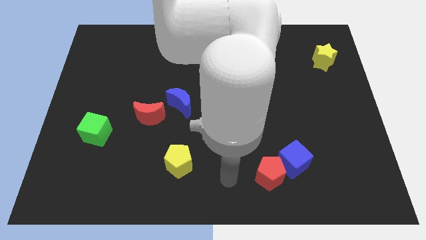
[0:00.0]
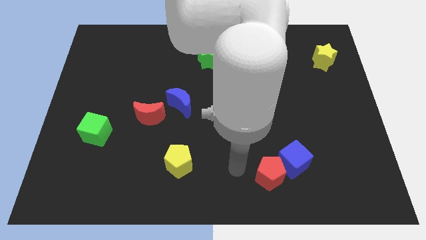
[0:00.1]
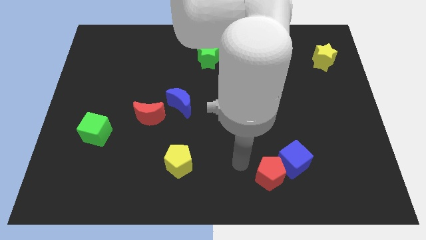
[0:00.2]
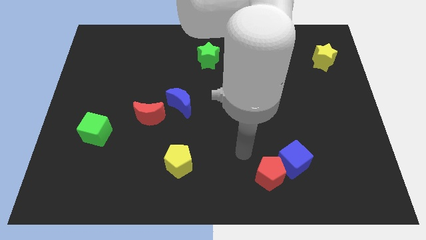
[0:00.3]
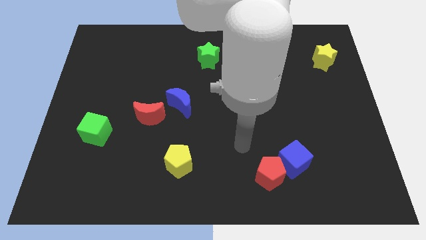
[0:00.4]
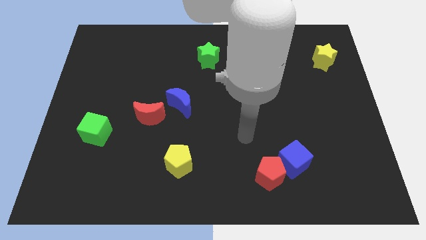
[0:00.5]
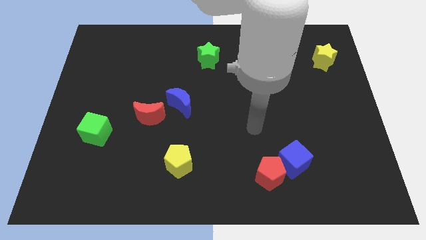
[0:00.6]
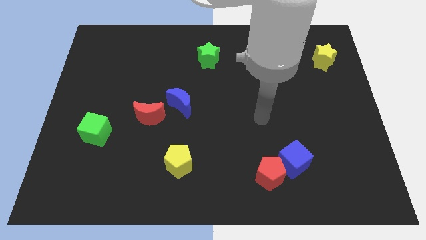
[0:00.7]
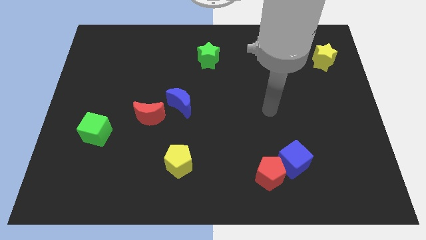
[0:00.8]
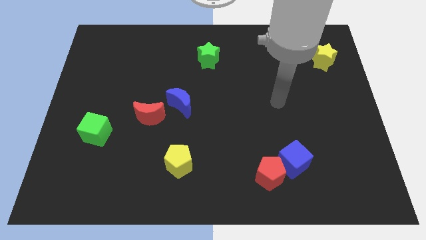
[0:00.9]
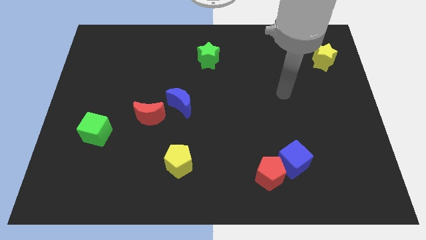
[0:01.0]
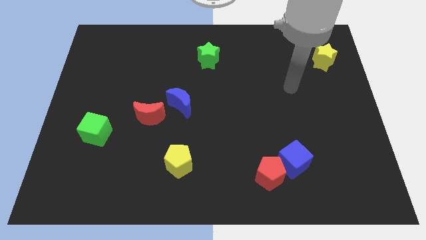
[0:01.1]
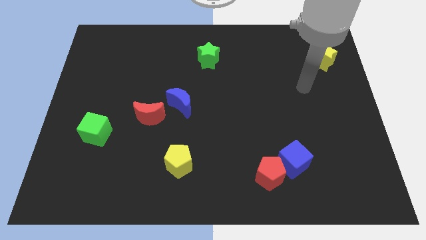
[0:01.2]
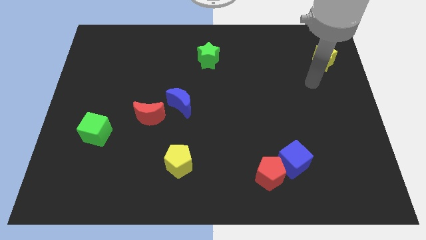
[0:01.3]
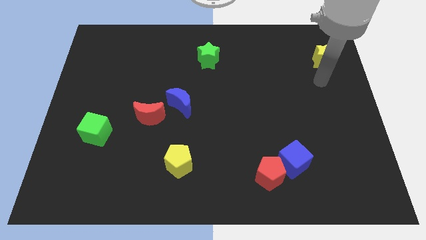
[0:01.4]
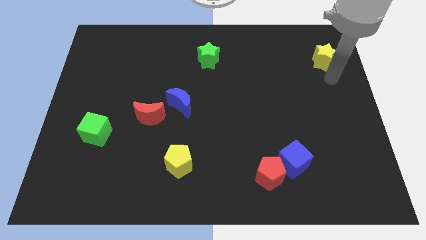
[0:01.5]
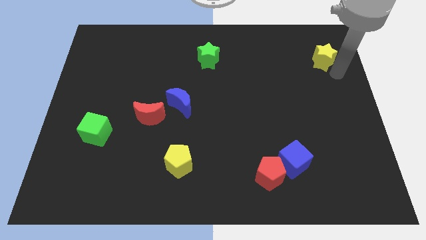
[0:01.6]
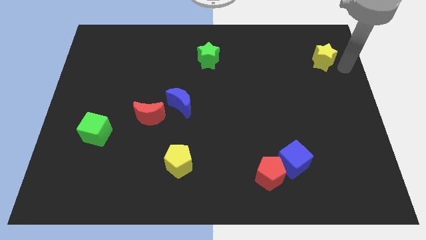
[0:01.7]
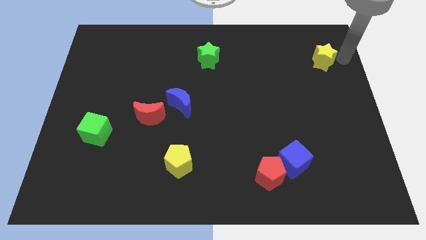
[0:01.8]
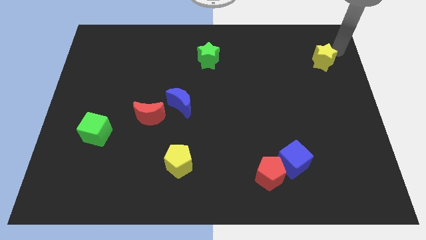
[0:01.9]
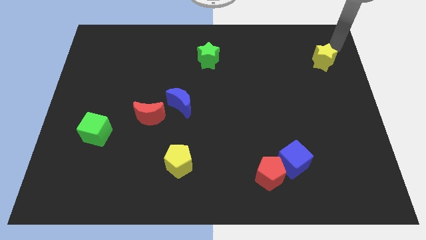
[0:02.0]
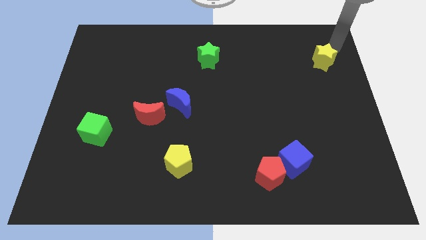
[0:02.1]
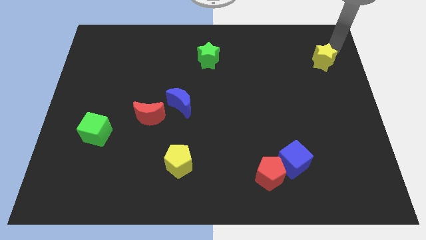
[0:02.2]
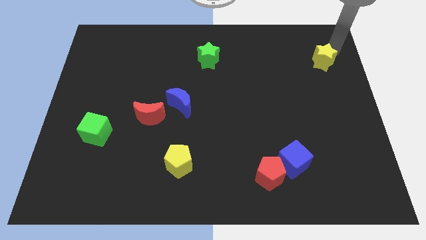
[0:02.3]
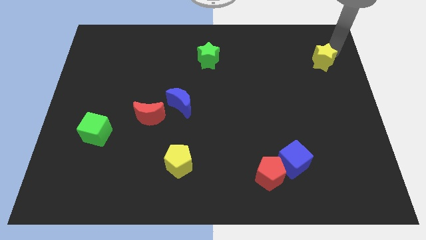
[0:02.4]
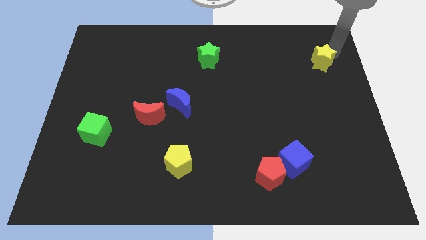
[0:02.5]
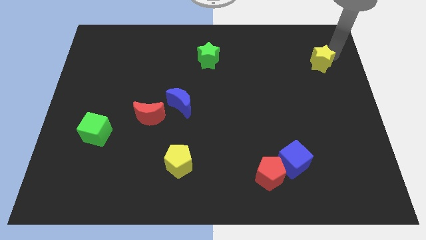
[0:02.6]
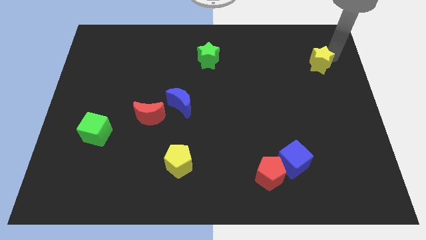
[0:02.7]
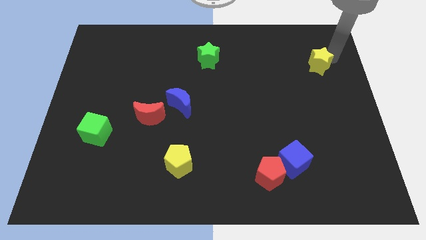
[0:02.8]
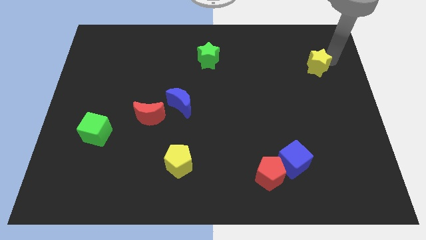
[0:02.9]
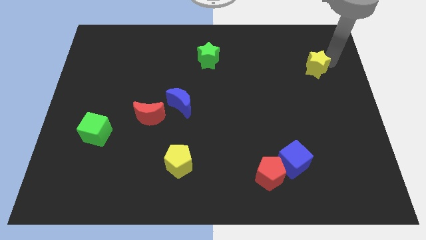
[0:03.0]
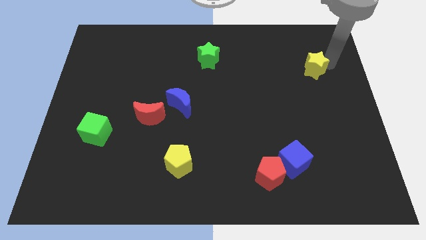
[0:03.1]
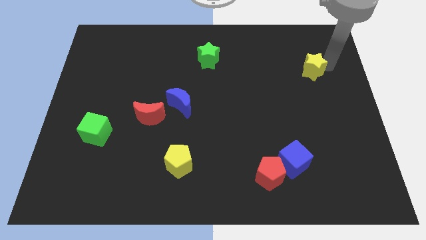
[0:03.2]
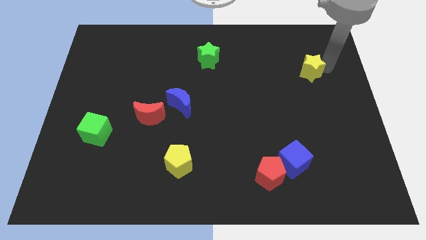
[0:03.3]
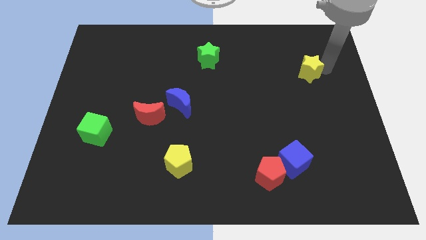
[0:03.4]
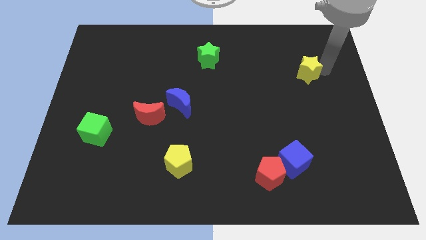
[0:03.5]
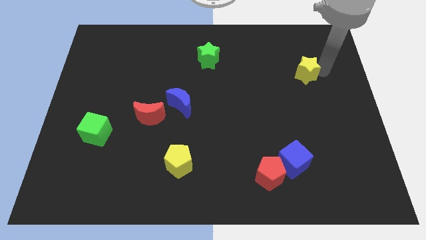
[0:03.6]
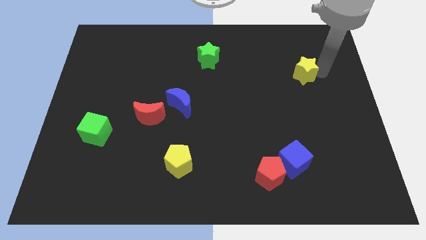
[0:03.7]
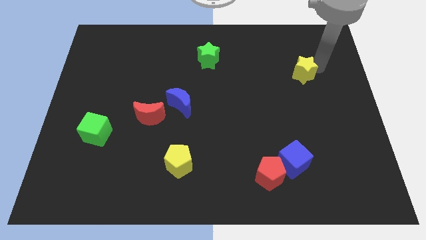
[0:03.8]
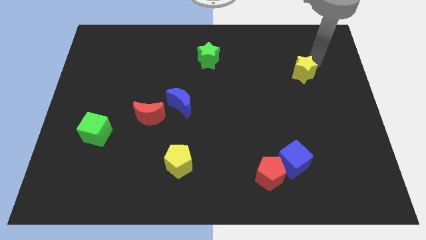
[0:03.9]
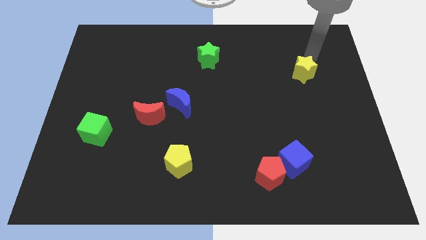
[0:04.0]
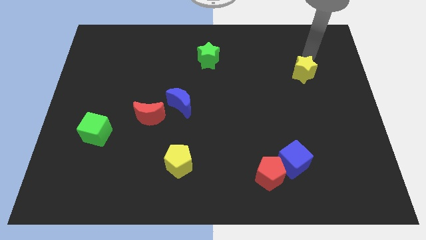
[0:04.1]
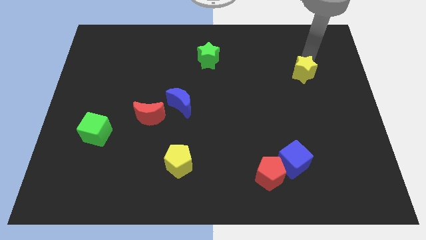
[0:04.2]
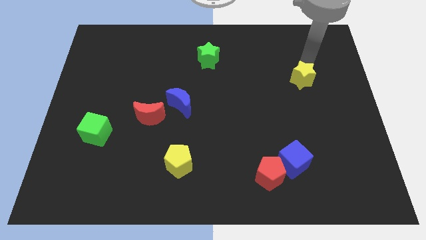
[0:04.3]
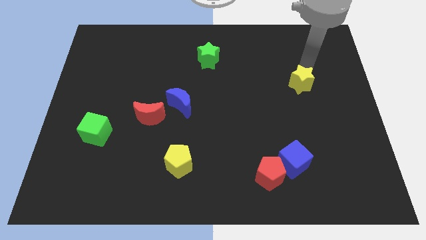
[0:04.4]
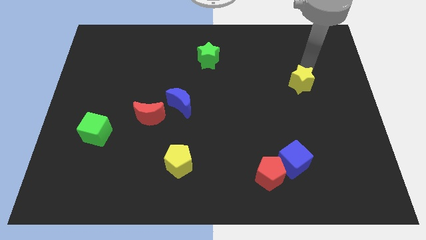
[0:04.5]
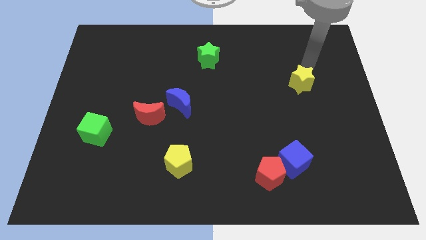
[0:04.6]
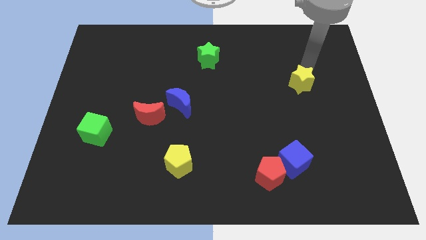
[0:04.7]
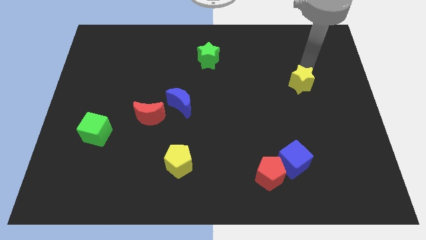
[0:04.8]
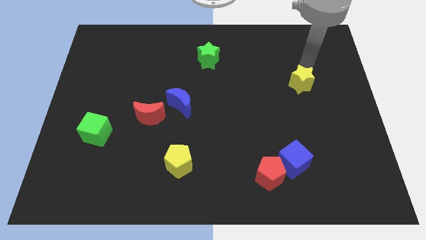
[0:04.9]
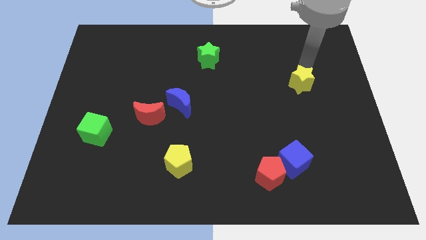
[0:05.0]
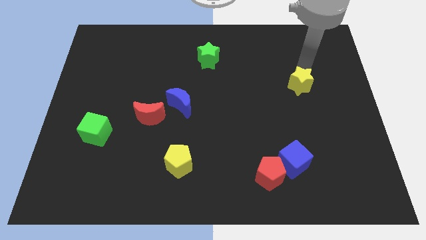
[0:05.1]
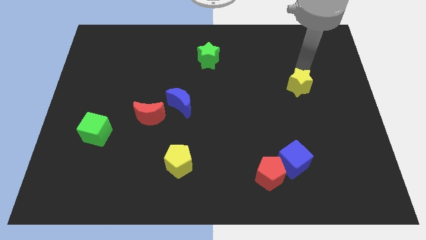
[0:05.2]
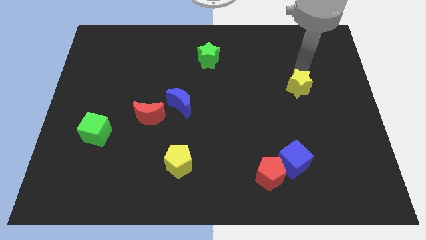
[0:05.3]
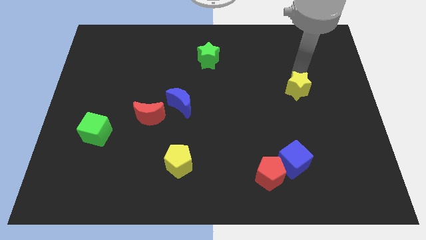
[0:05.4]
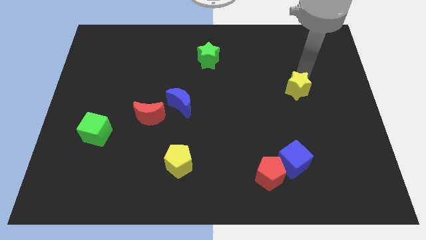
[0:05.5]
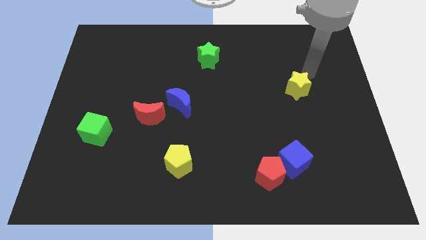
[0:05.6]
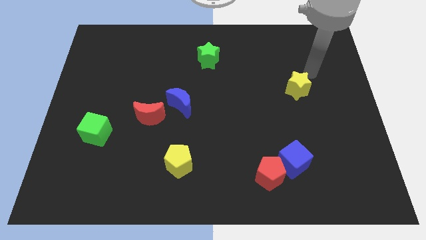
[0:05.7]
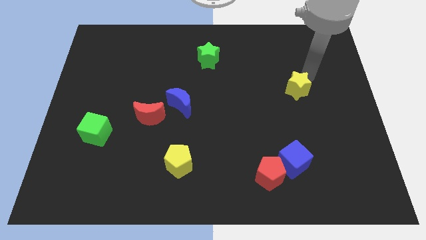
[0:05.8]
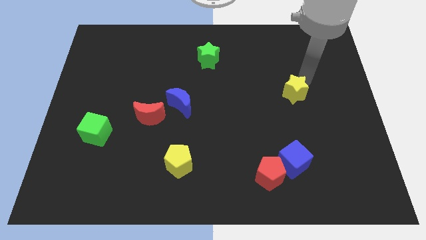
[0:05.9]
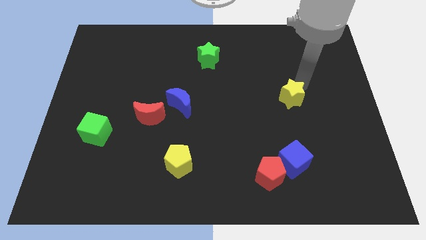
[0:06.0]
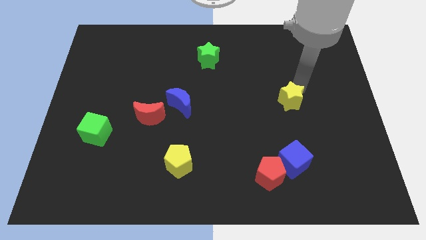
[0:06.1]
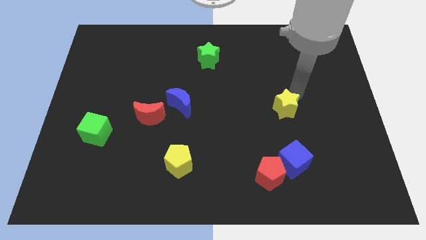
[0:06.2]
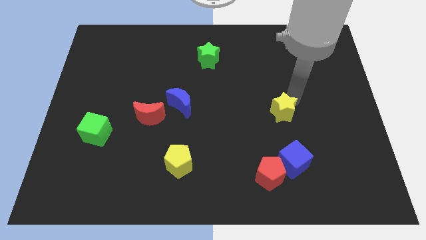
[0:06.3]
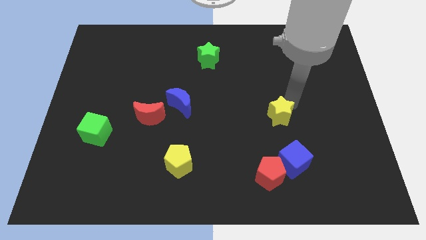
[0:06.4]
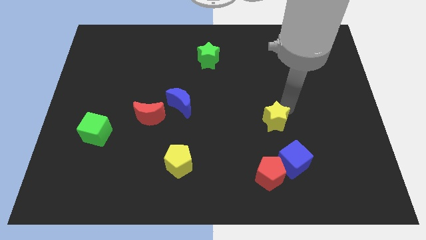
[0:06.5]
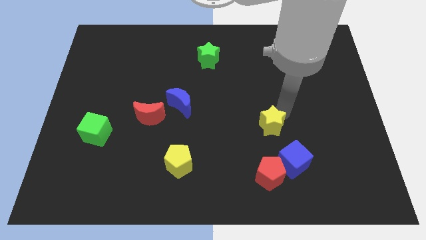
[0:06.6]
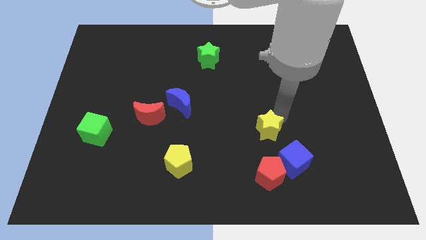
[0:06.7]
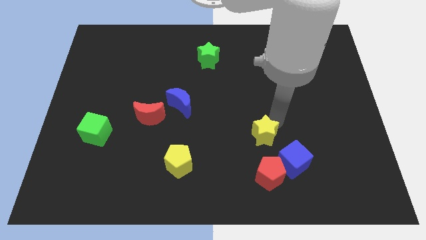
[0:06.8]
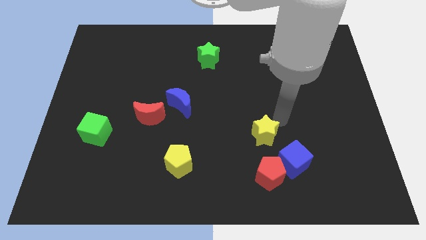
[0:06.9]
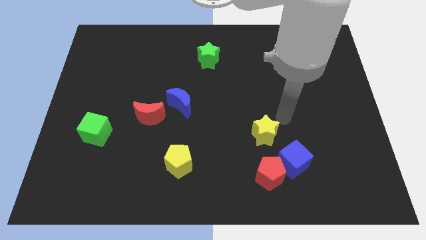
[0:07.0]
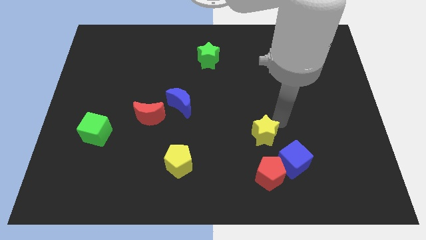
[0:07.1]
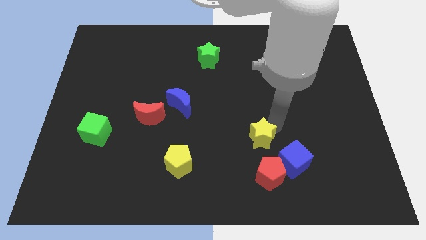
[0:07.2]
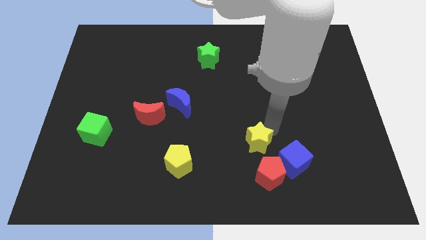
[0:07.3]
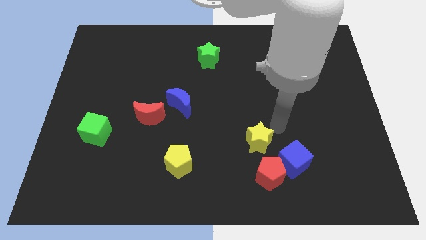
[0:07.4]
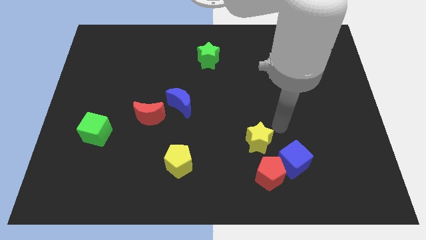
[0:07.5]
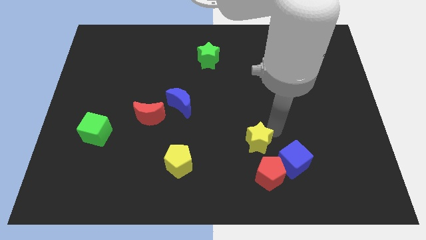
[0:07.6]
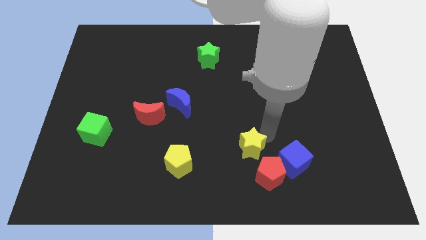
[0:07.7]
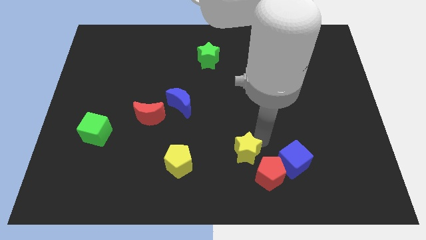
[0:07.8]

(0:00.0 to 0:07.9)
put the yellow star just right of the yellow pentagon

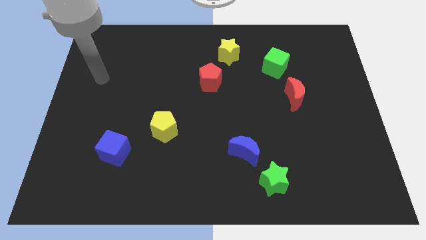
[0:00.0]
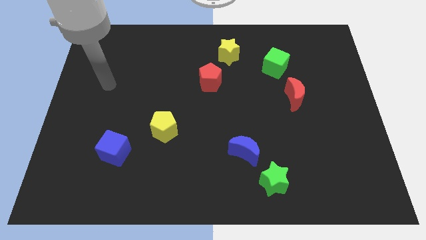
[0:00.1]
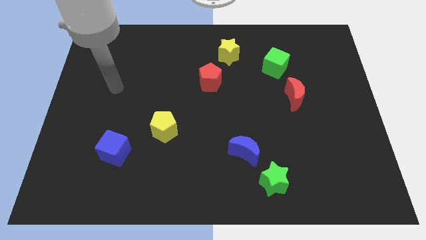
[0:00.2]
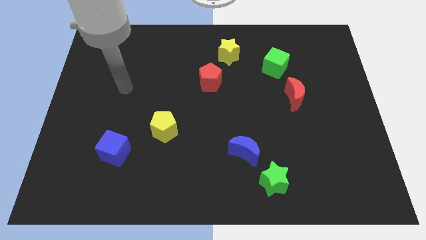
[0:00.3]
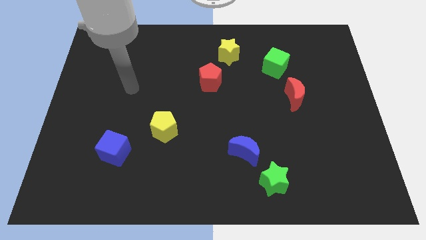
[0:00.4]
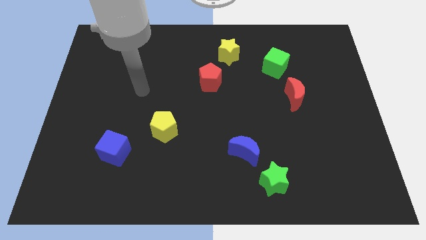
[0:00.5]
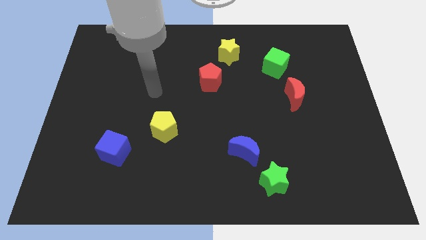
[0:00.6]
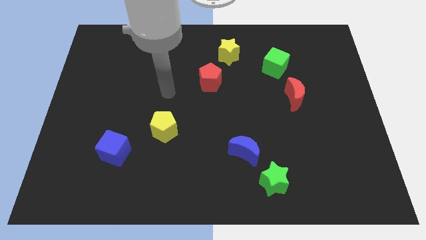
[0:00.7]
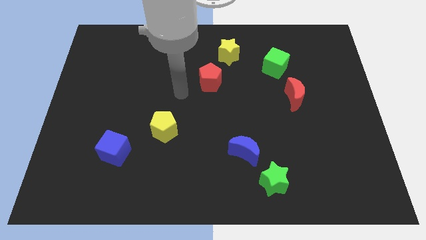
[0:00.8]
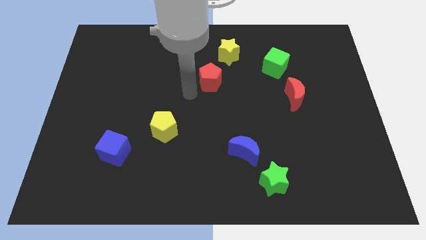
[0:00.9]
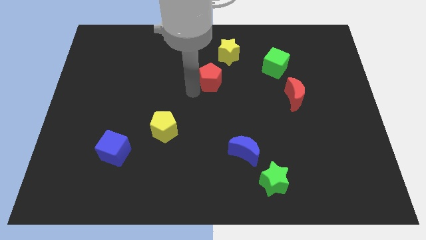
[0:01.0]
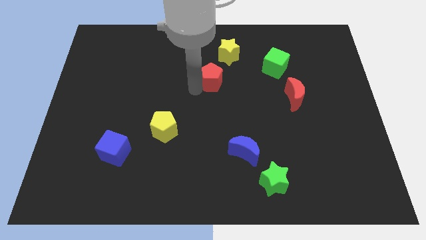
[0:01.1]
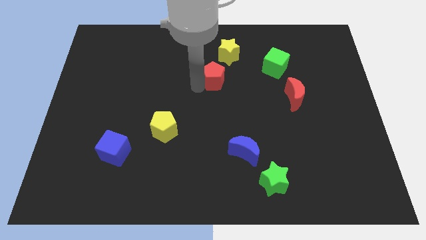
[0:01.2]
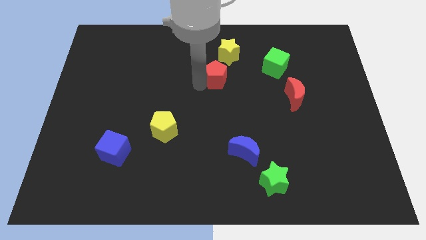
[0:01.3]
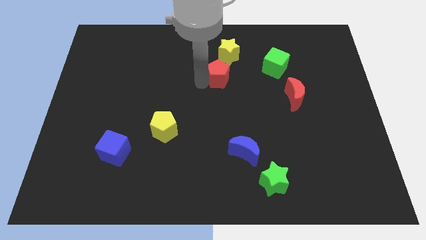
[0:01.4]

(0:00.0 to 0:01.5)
push the red pentagon left of the green cube
